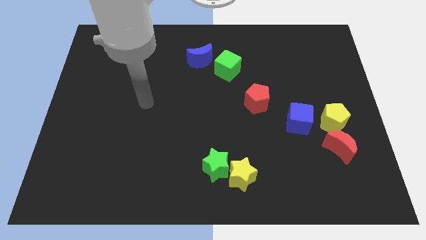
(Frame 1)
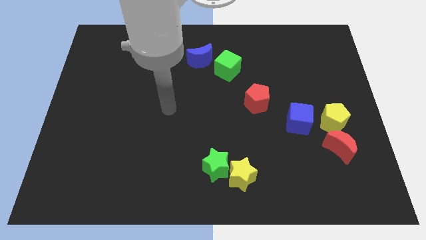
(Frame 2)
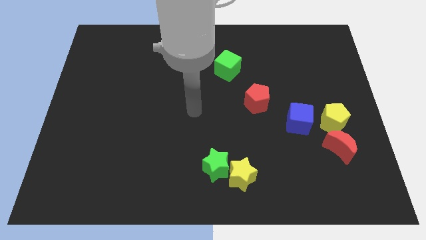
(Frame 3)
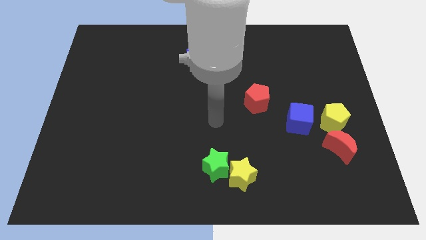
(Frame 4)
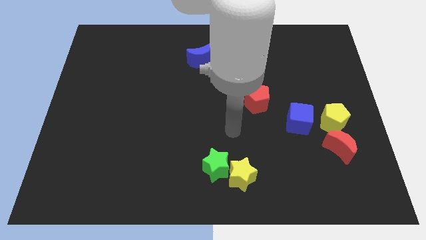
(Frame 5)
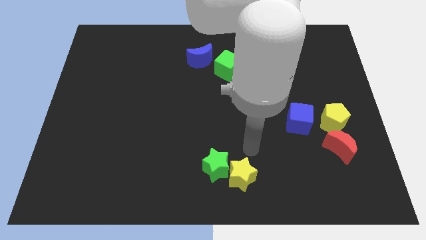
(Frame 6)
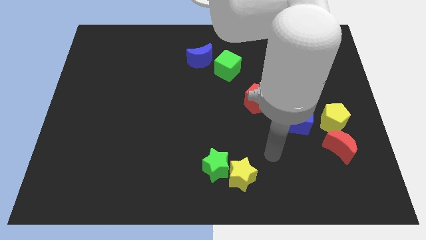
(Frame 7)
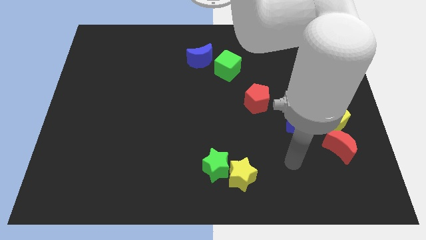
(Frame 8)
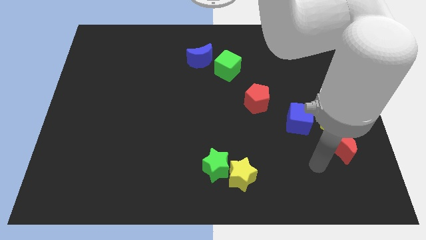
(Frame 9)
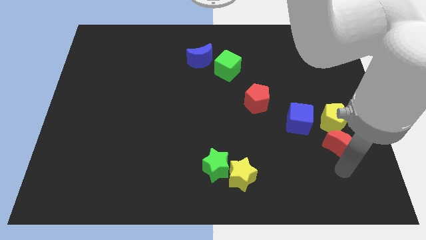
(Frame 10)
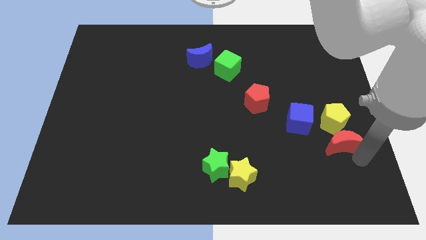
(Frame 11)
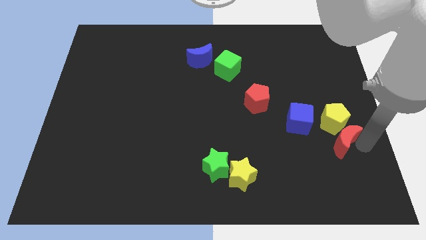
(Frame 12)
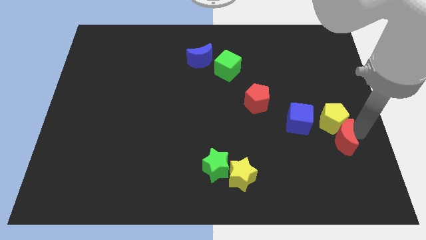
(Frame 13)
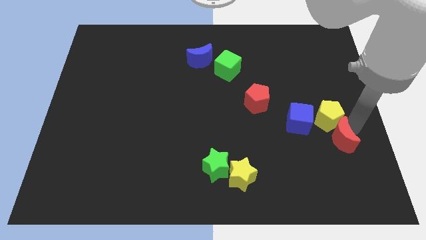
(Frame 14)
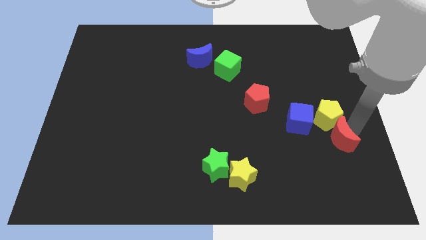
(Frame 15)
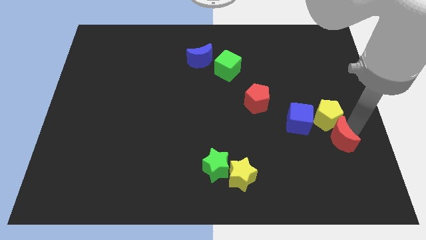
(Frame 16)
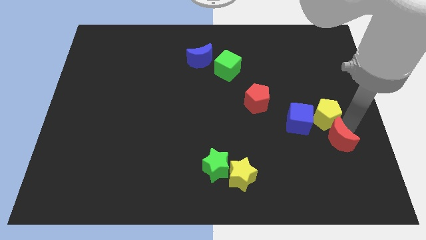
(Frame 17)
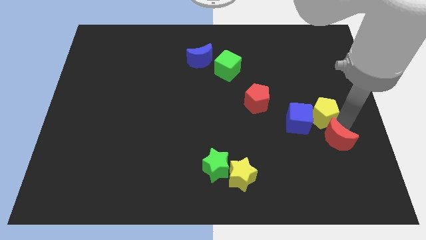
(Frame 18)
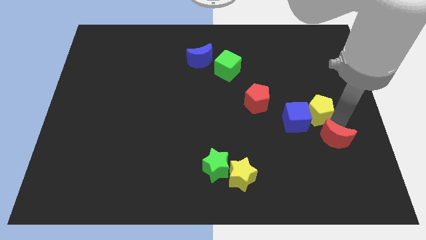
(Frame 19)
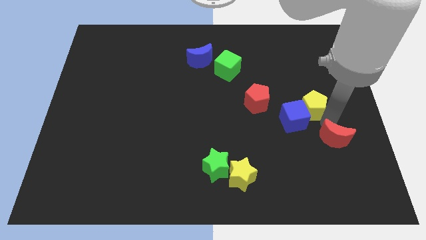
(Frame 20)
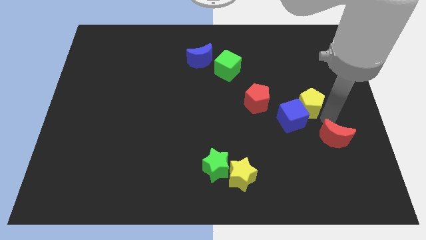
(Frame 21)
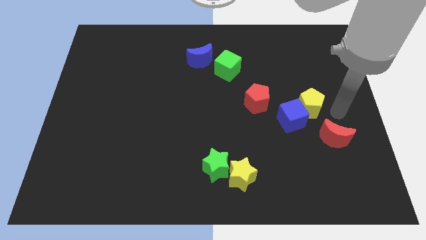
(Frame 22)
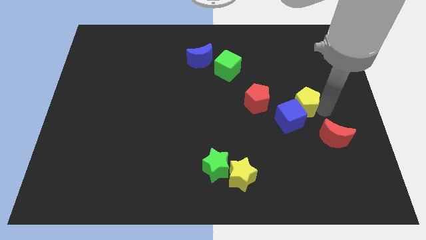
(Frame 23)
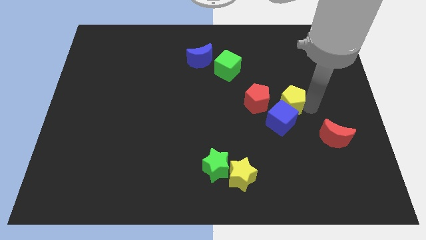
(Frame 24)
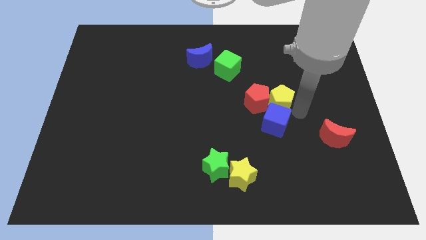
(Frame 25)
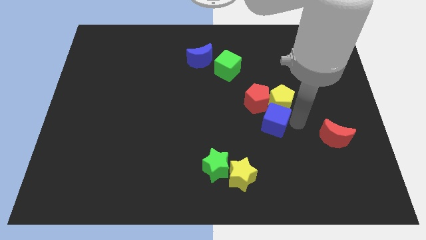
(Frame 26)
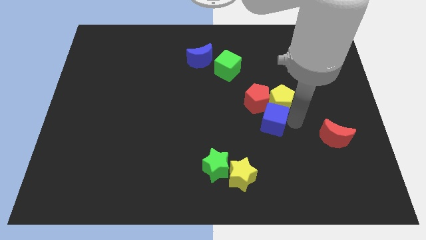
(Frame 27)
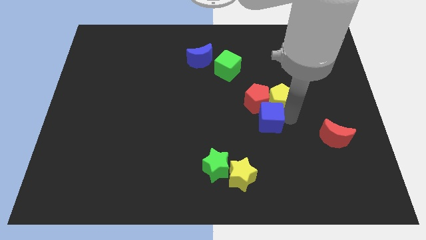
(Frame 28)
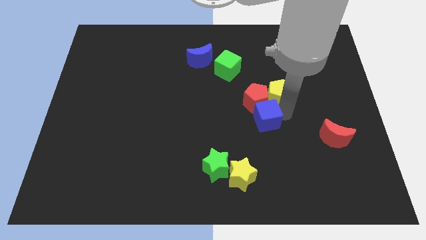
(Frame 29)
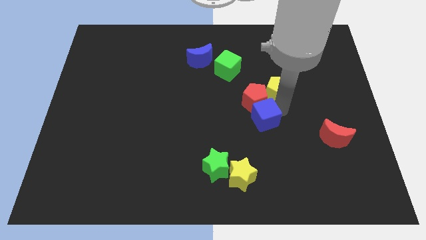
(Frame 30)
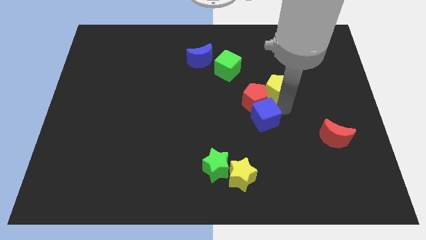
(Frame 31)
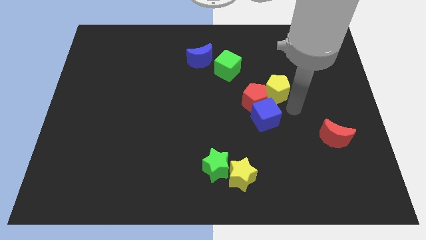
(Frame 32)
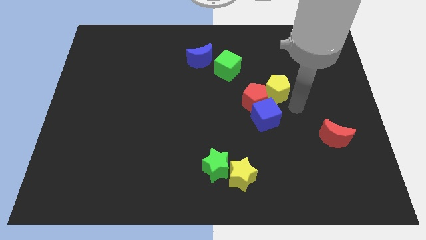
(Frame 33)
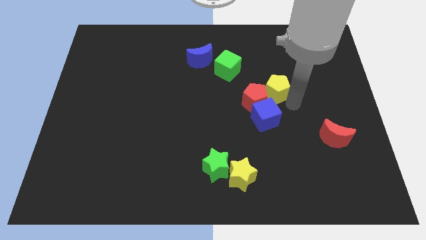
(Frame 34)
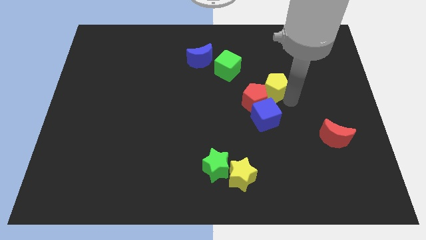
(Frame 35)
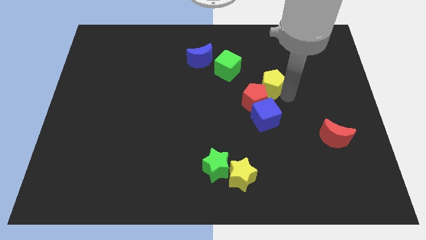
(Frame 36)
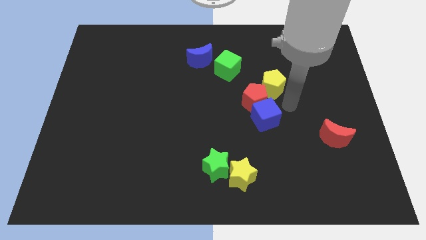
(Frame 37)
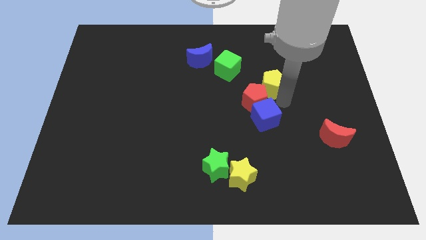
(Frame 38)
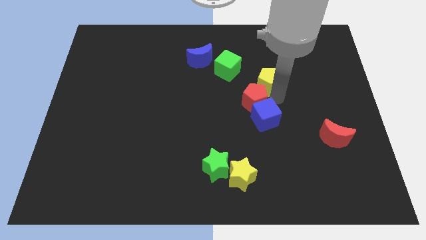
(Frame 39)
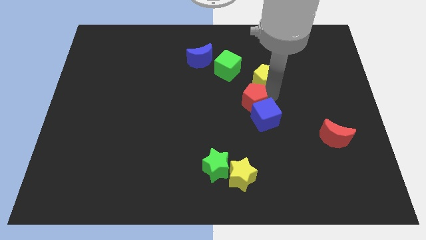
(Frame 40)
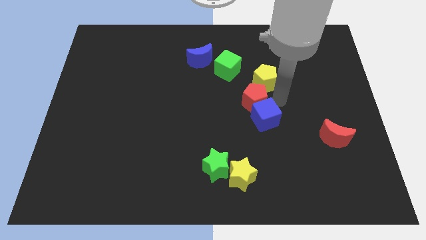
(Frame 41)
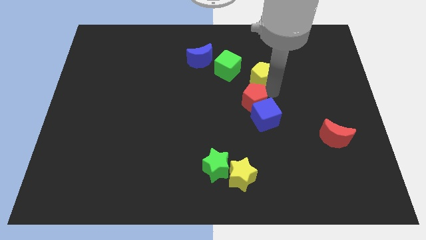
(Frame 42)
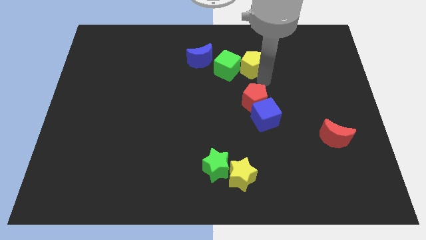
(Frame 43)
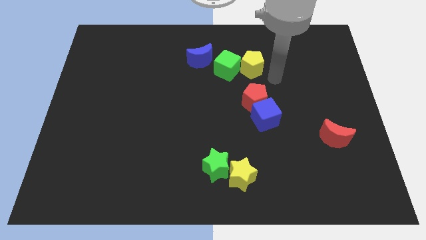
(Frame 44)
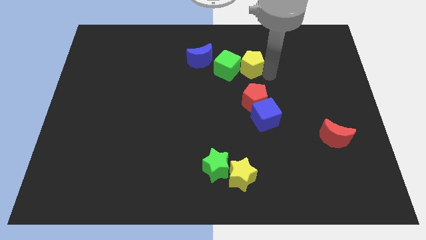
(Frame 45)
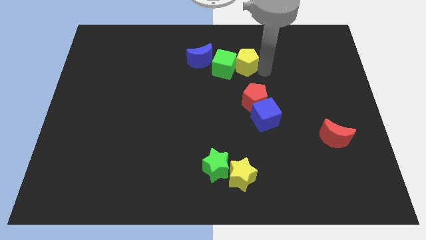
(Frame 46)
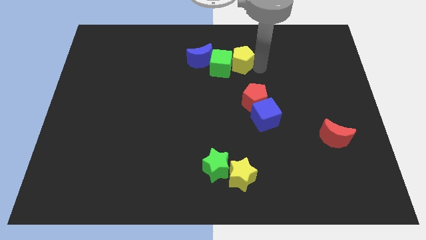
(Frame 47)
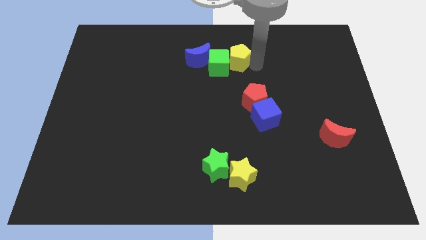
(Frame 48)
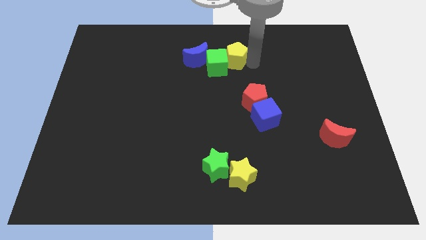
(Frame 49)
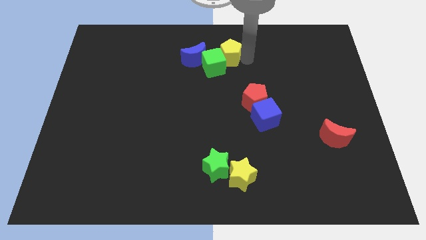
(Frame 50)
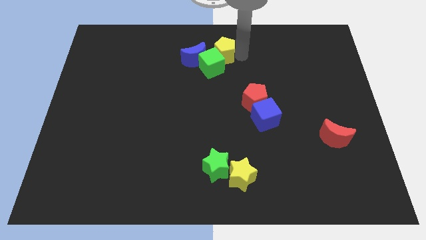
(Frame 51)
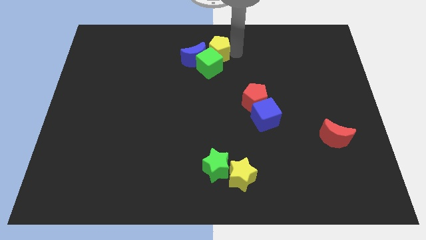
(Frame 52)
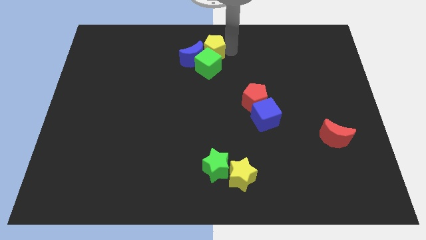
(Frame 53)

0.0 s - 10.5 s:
push the yellow pentagon towards the blue moon

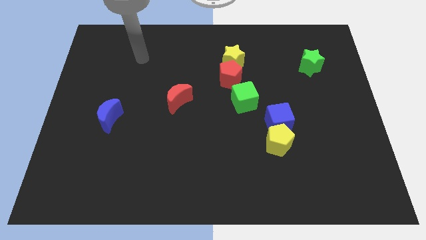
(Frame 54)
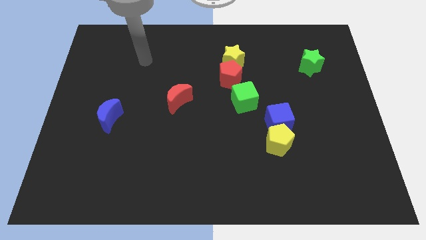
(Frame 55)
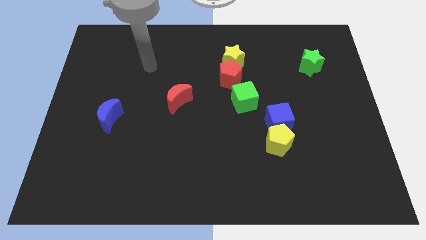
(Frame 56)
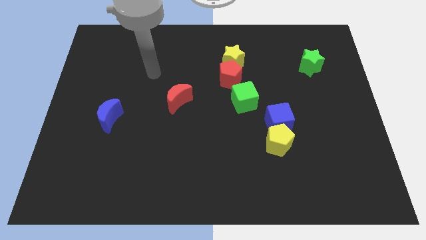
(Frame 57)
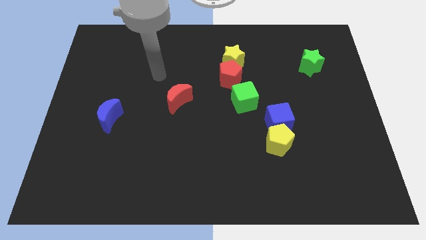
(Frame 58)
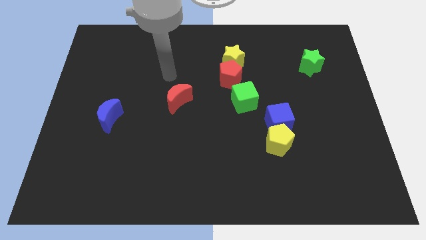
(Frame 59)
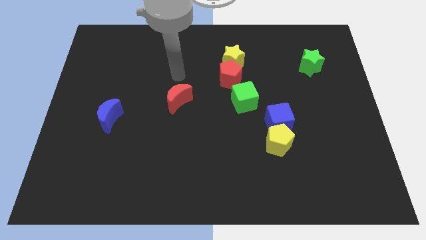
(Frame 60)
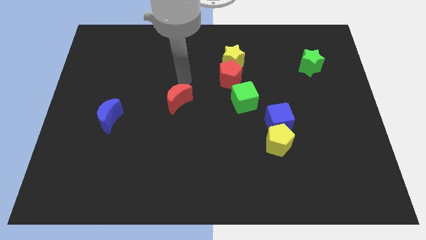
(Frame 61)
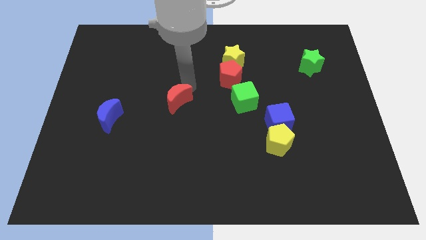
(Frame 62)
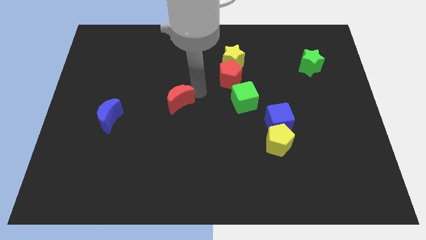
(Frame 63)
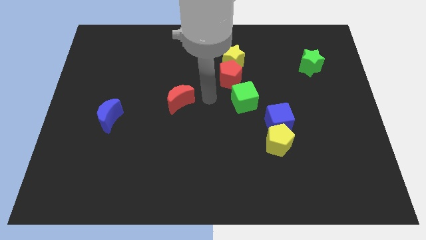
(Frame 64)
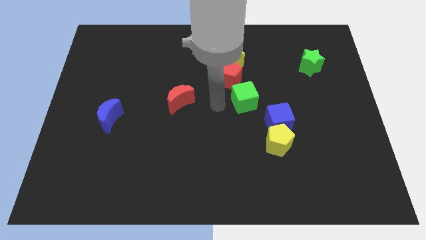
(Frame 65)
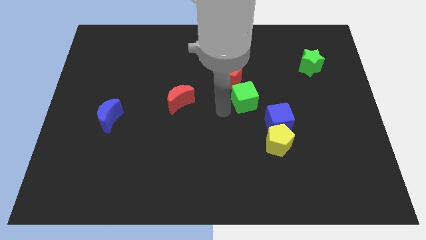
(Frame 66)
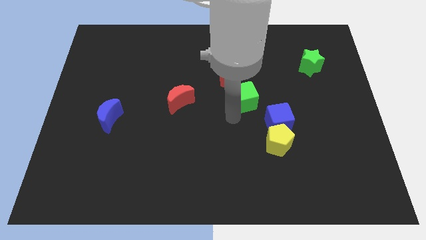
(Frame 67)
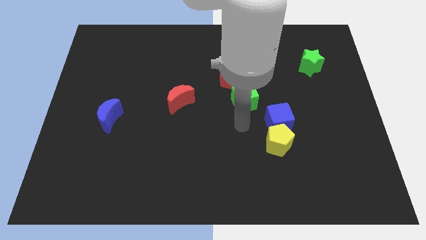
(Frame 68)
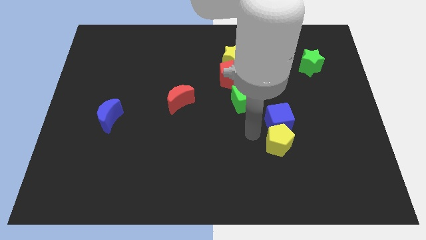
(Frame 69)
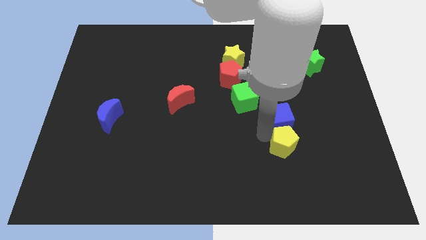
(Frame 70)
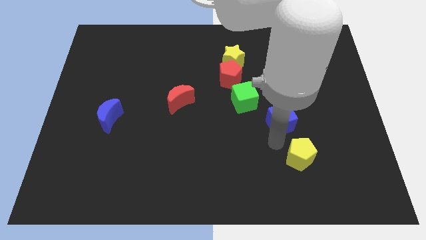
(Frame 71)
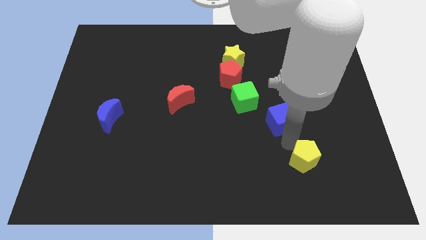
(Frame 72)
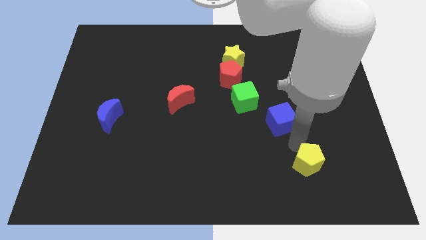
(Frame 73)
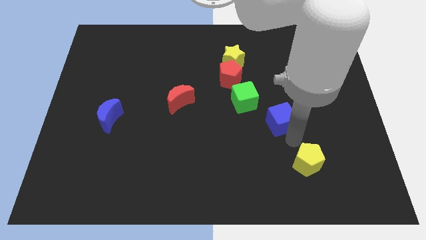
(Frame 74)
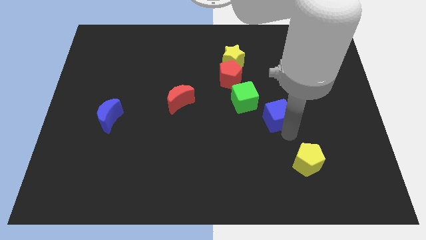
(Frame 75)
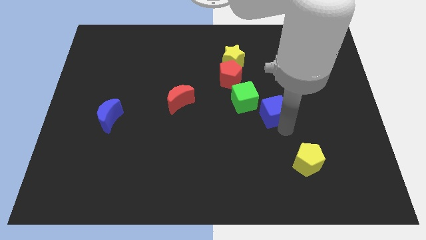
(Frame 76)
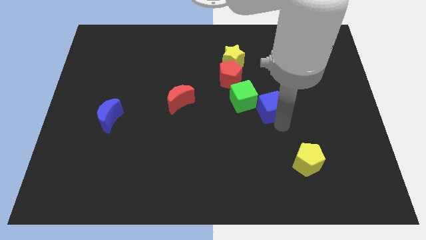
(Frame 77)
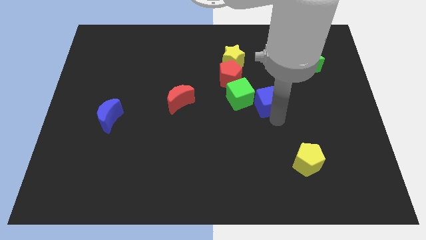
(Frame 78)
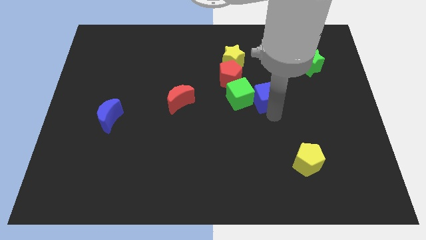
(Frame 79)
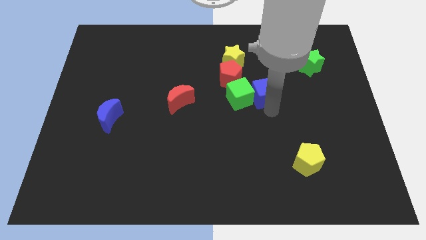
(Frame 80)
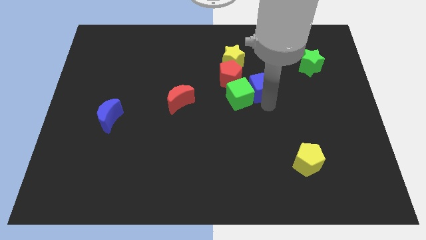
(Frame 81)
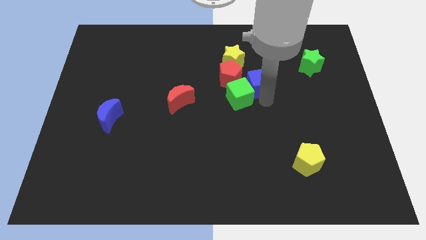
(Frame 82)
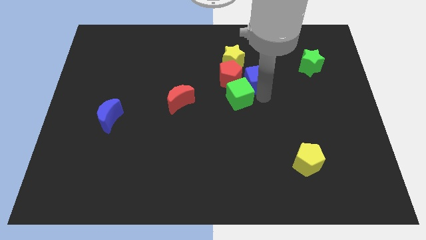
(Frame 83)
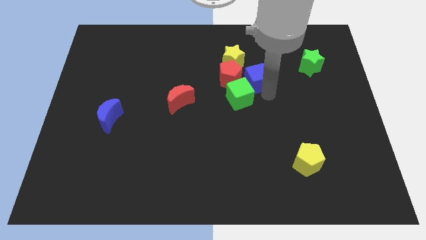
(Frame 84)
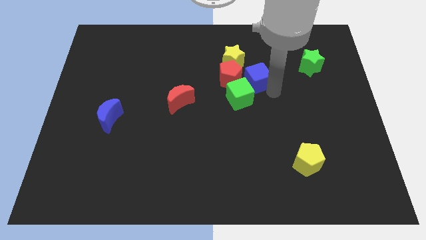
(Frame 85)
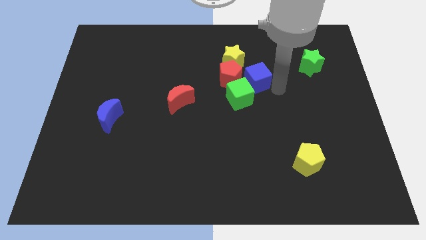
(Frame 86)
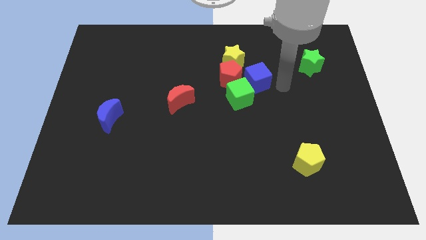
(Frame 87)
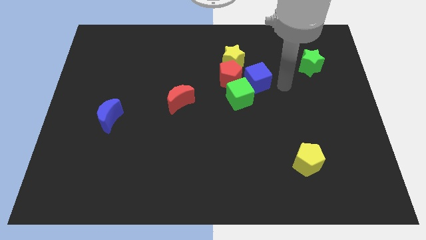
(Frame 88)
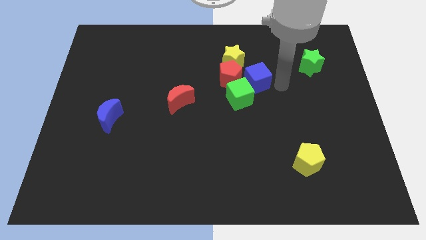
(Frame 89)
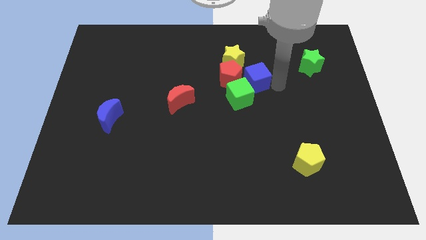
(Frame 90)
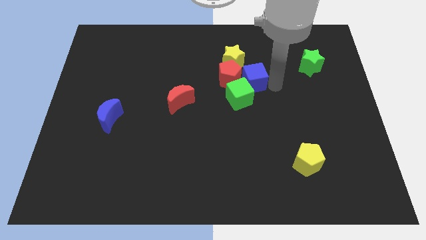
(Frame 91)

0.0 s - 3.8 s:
slide the blue cube to the red pentagon
